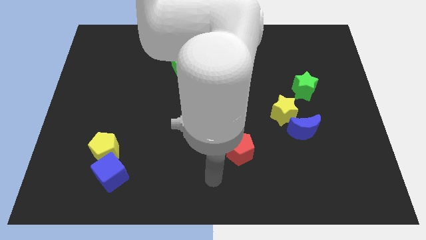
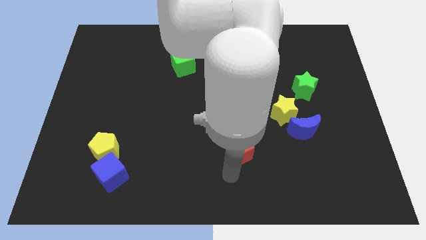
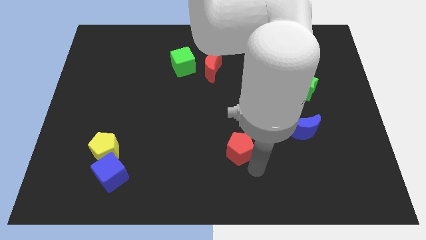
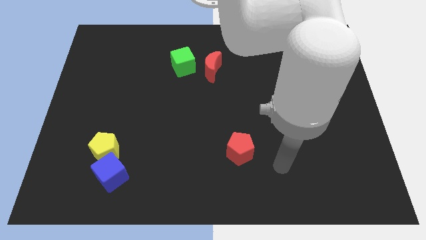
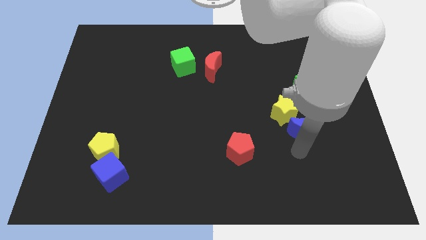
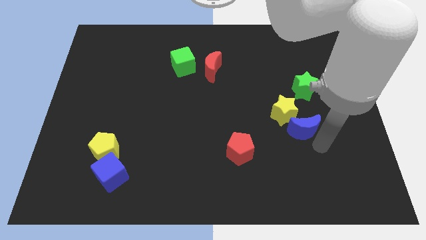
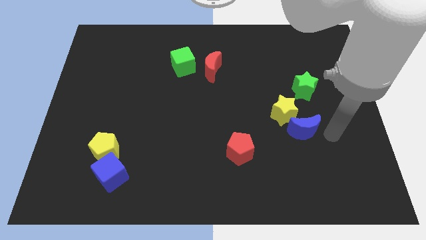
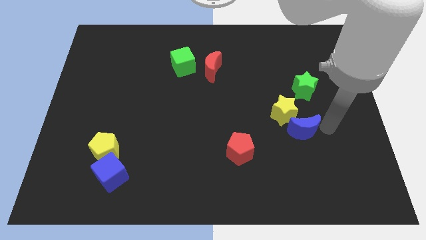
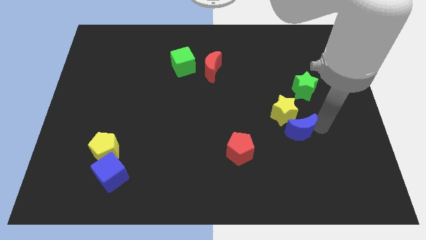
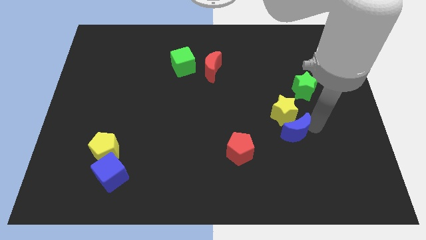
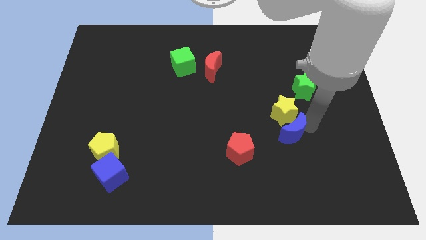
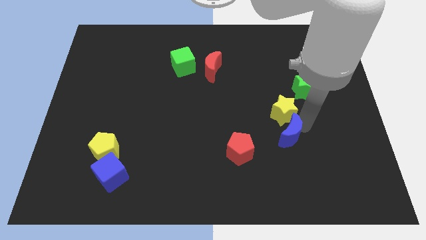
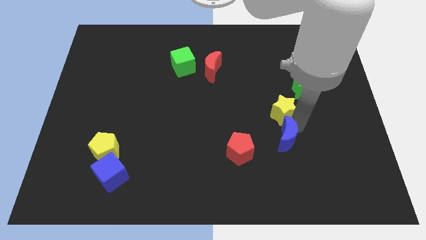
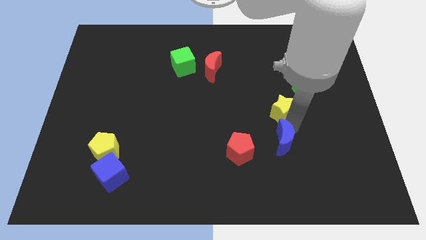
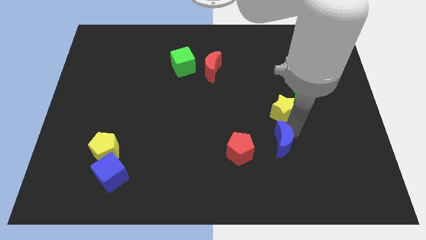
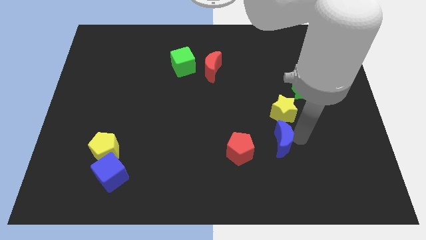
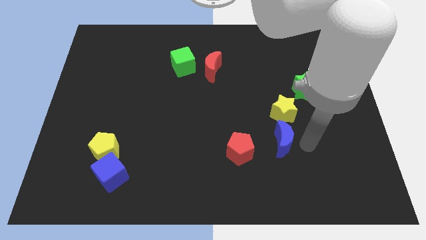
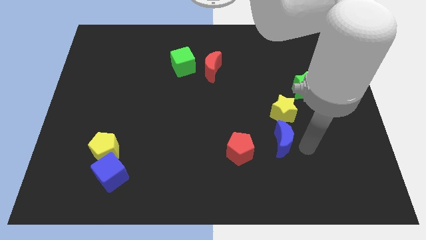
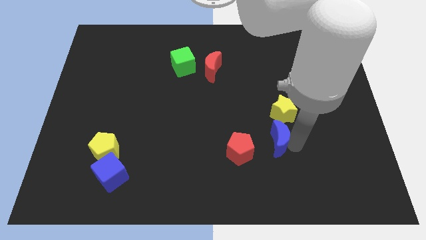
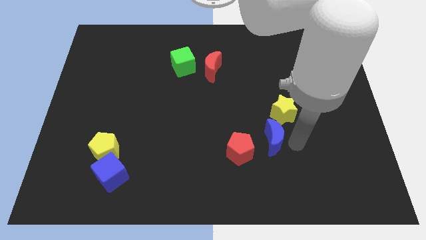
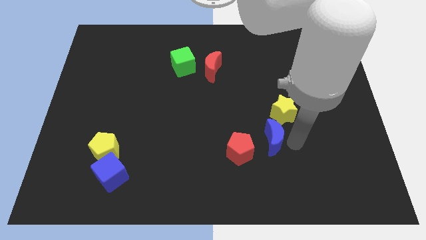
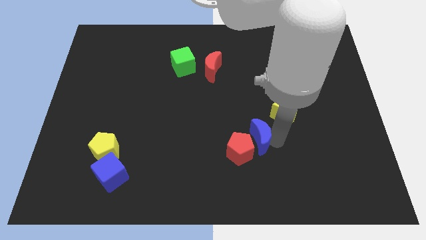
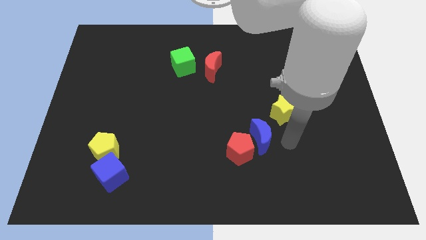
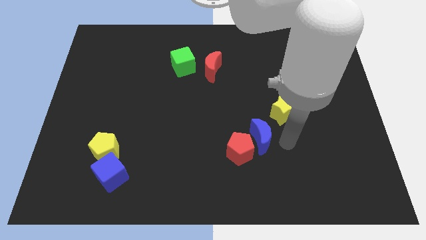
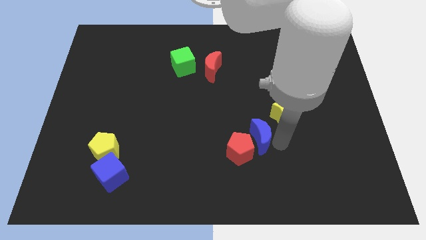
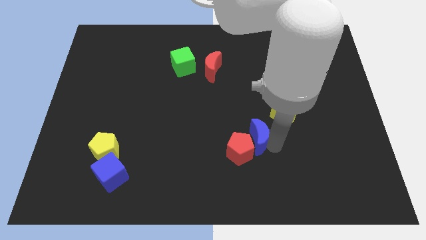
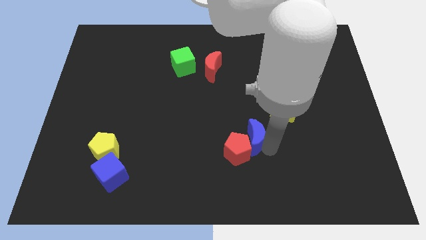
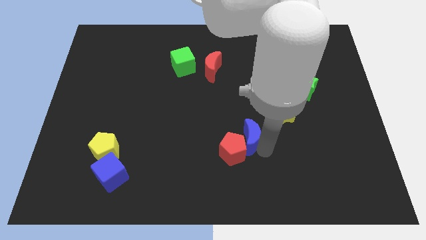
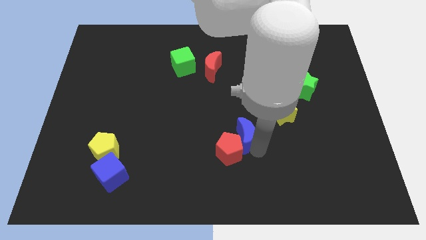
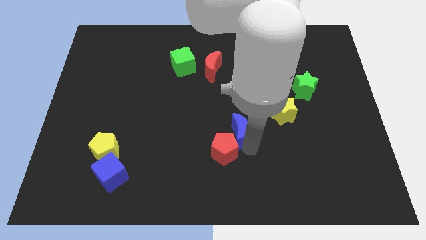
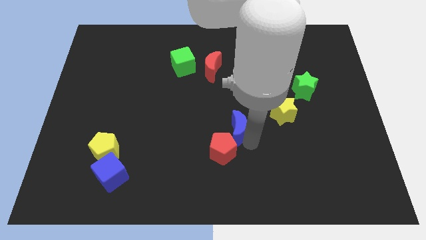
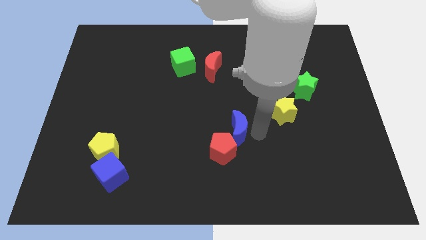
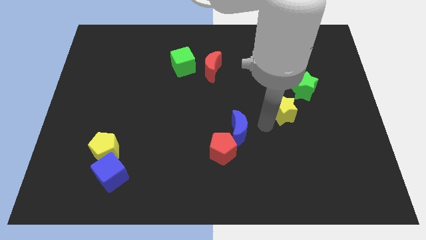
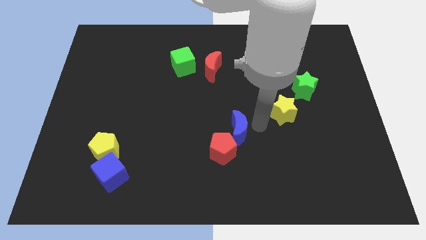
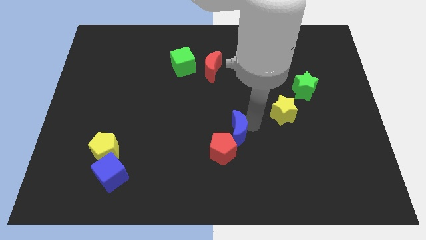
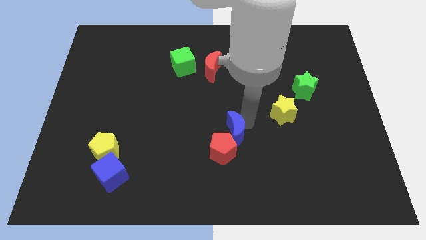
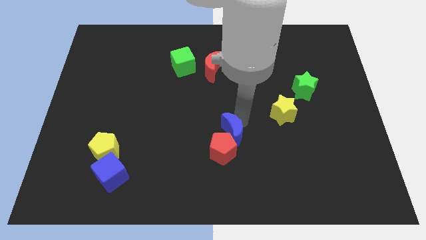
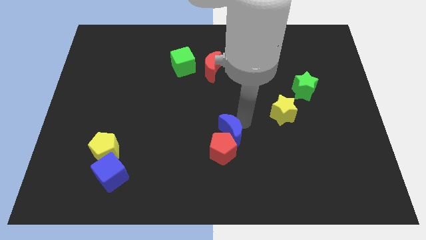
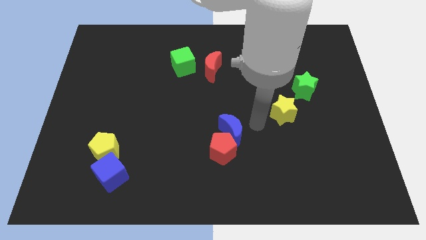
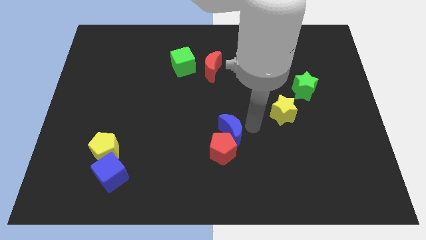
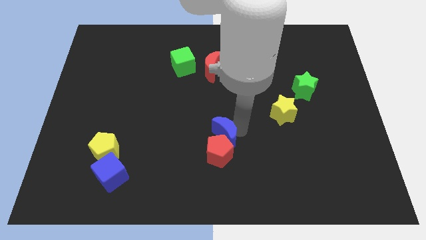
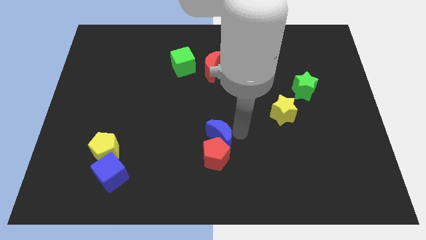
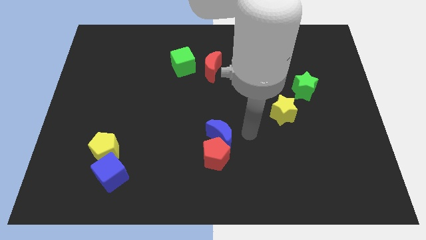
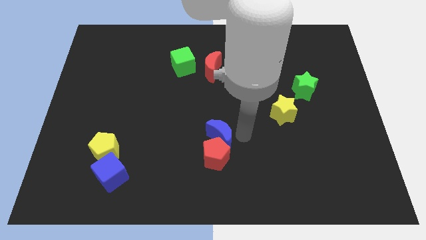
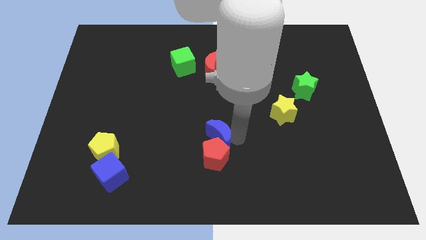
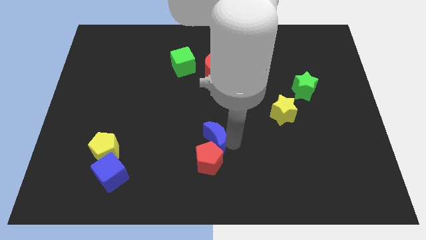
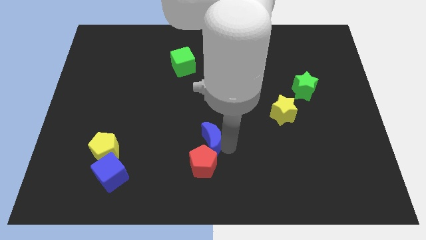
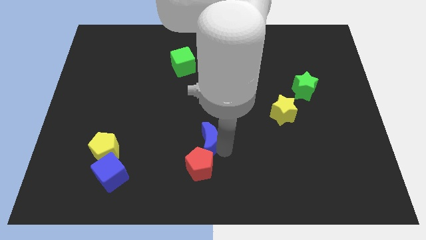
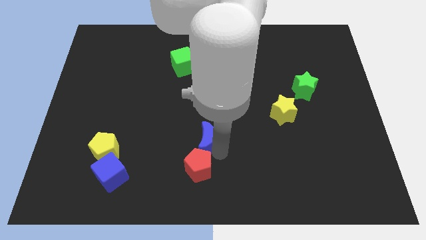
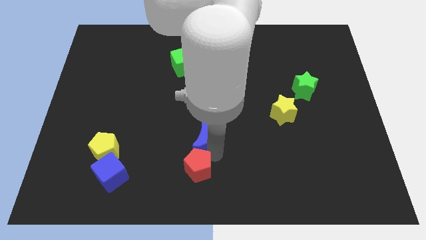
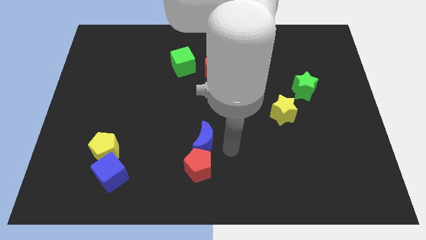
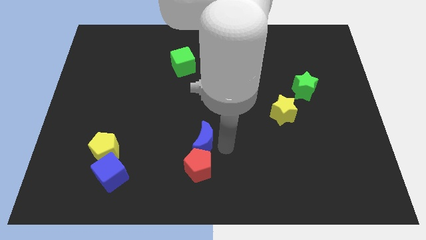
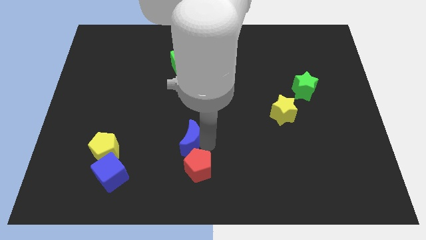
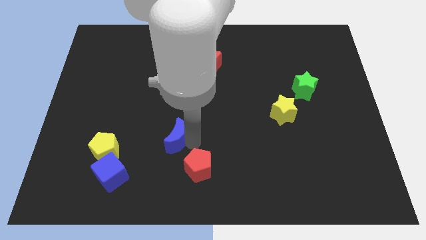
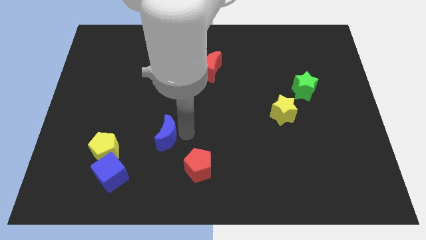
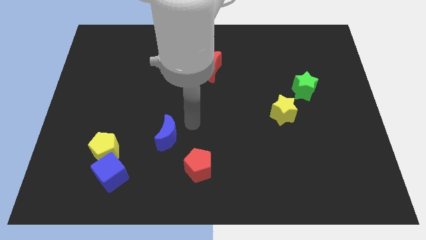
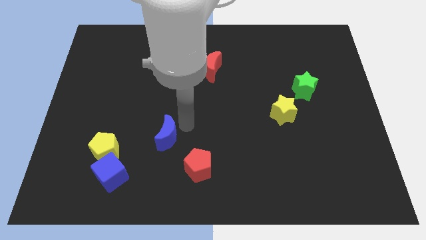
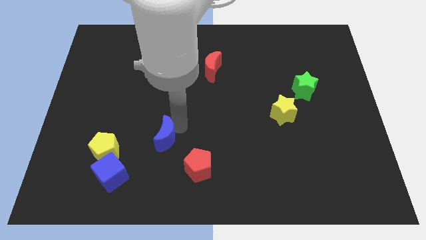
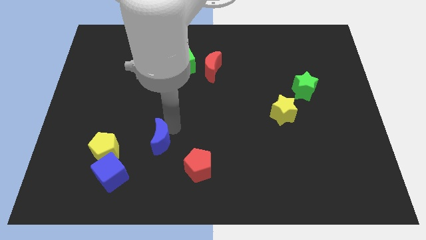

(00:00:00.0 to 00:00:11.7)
put the blue moon diagonally up and to the right of the blue cube

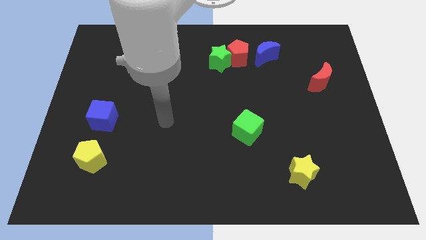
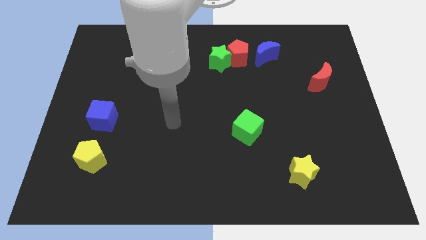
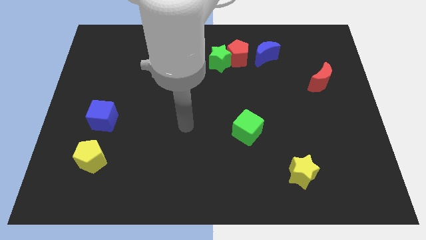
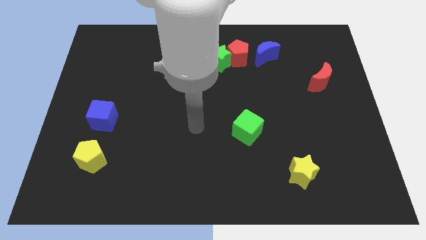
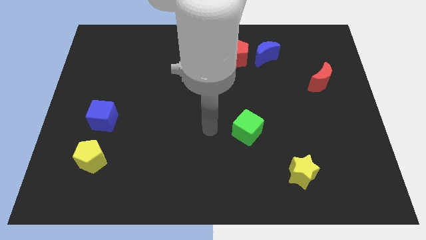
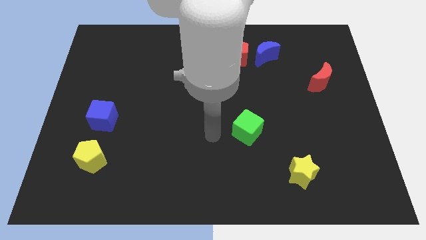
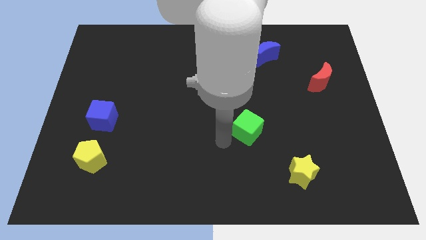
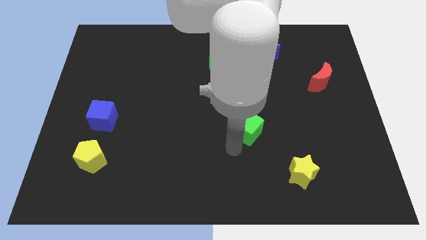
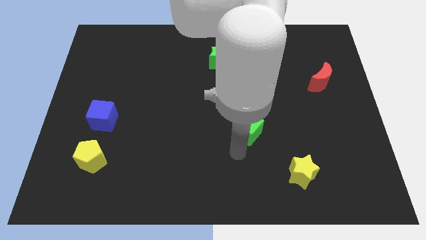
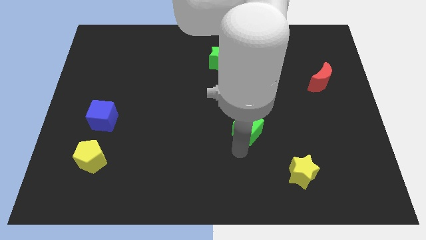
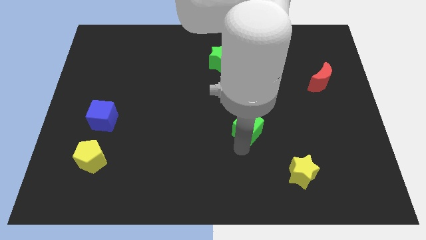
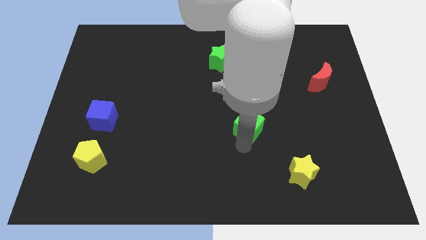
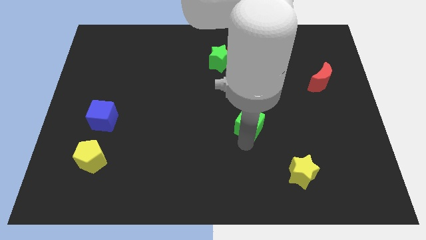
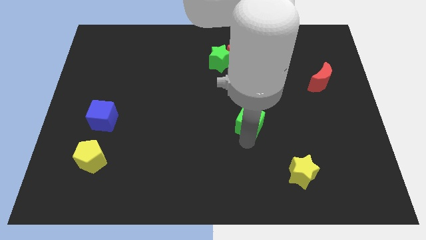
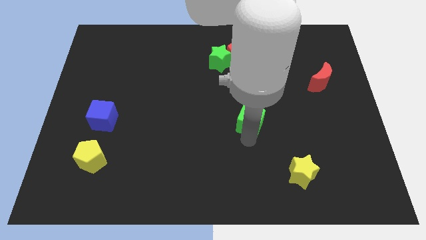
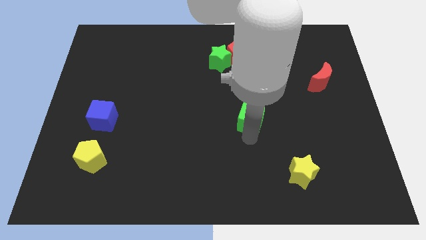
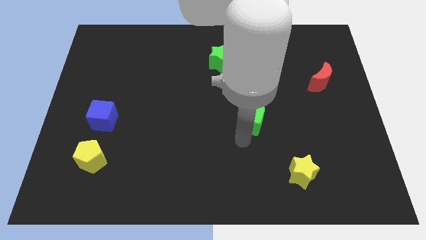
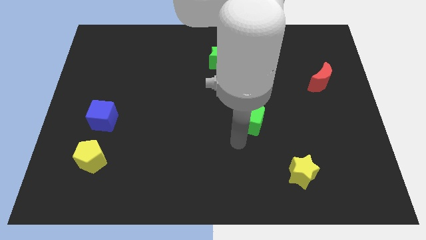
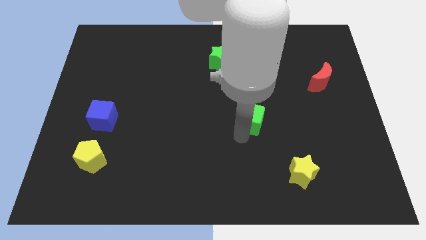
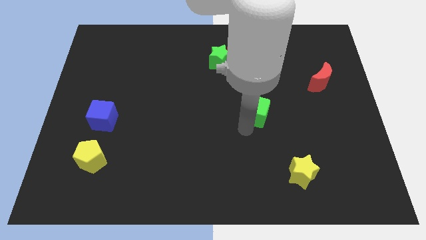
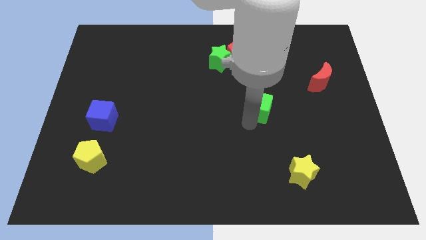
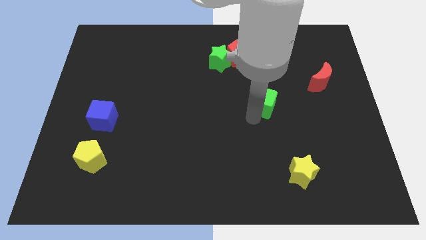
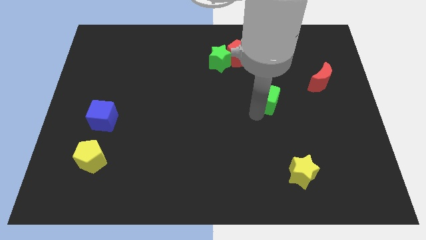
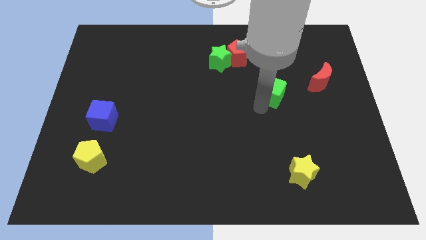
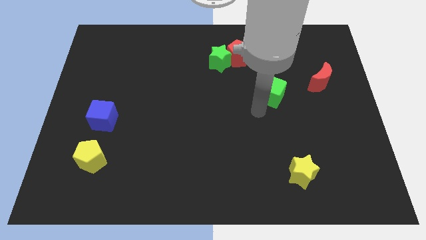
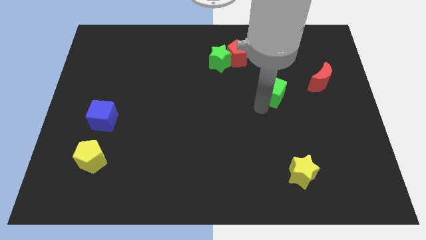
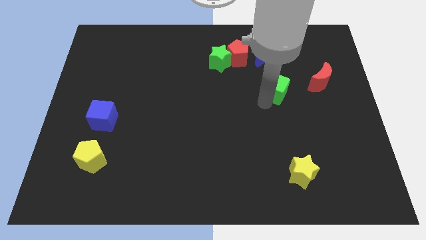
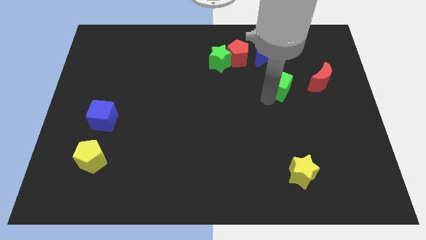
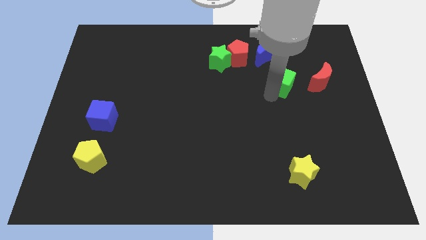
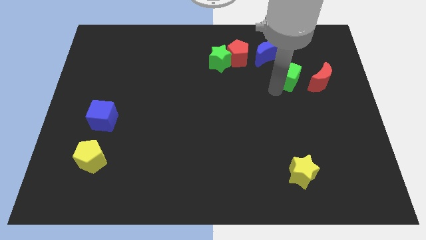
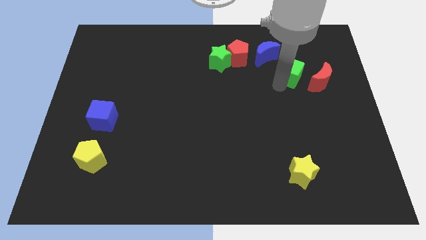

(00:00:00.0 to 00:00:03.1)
put the green cube to the top left side of the red moon
